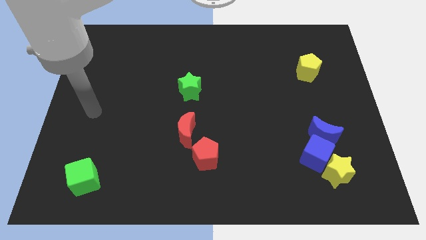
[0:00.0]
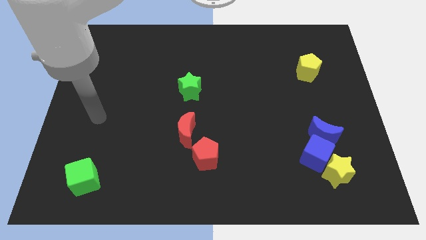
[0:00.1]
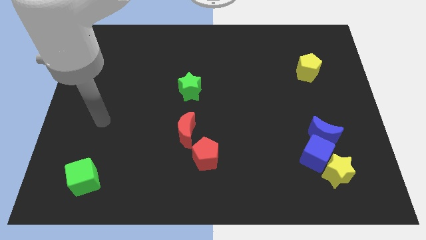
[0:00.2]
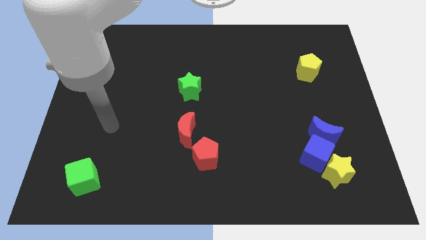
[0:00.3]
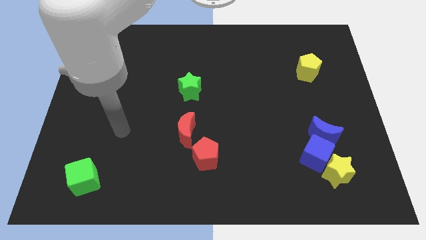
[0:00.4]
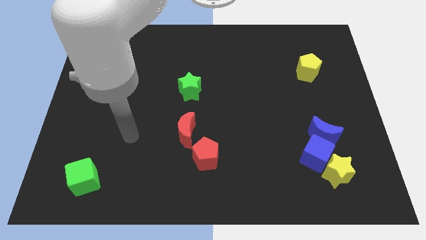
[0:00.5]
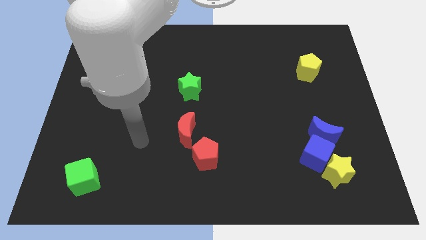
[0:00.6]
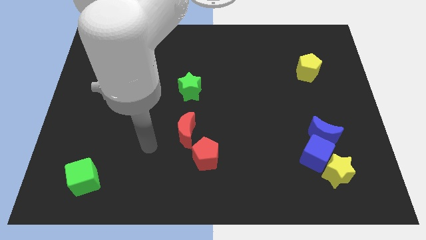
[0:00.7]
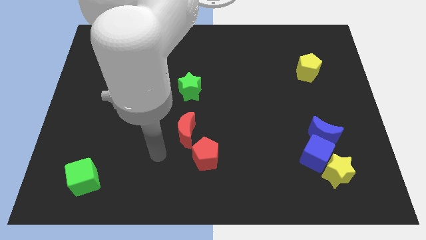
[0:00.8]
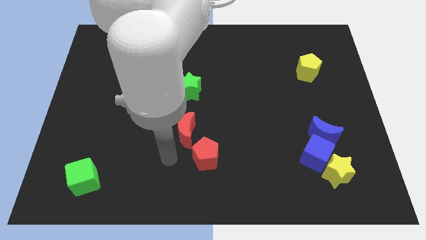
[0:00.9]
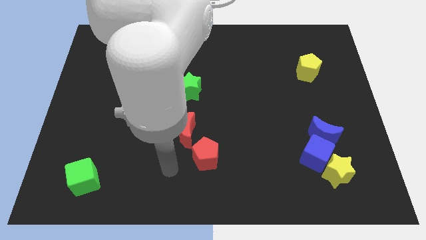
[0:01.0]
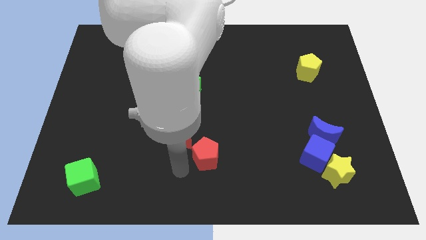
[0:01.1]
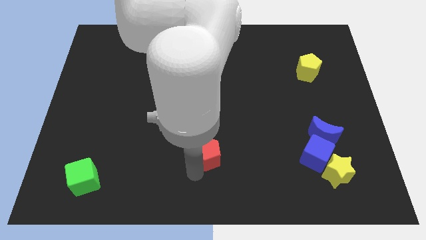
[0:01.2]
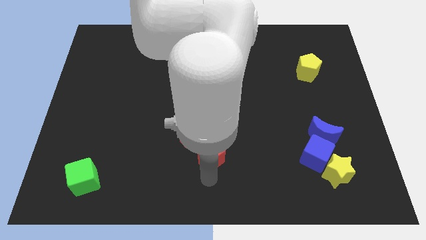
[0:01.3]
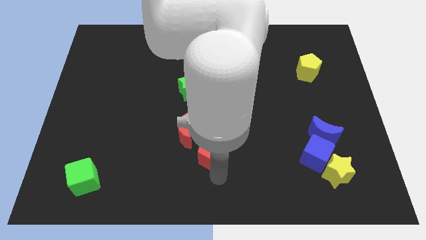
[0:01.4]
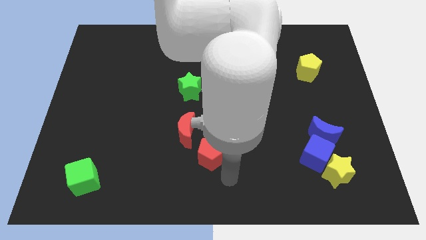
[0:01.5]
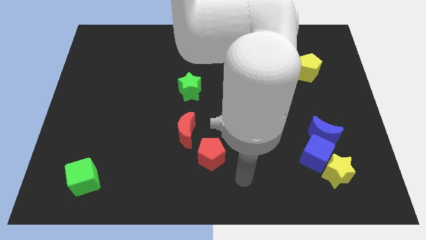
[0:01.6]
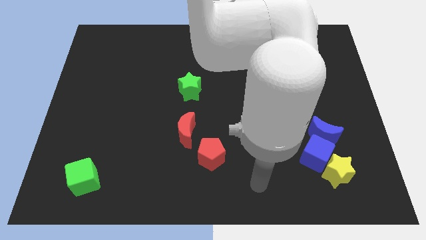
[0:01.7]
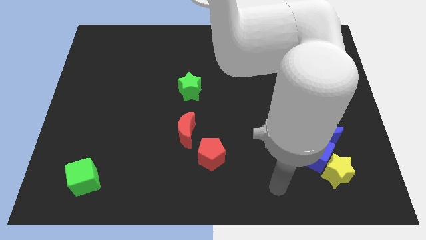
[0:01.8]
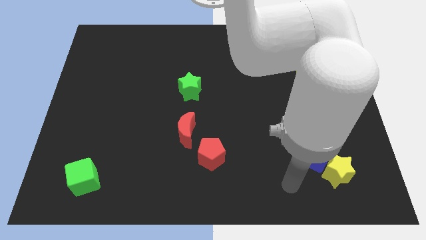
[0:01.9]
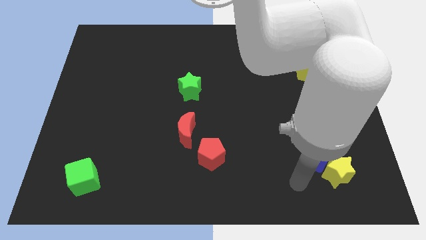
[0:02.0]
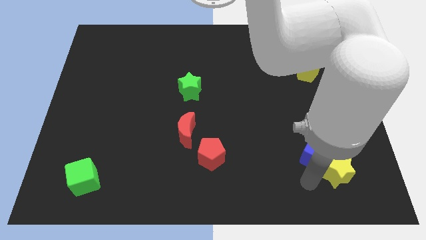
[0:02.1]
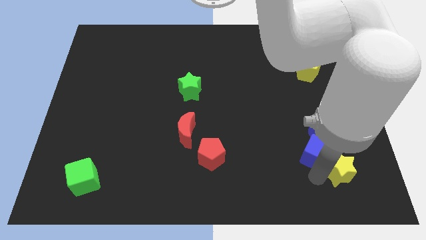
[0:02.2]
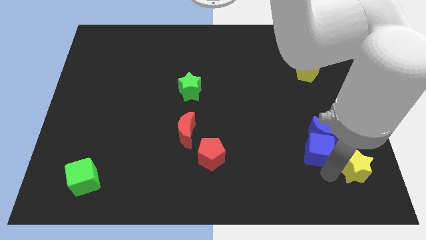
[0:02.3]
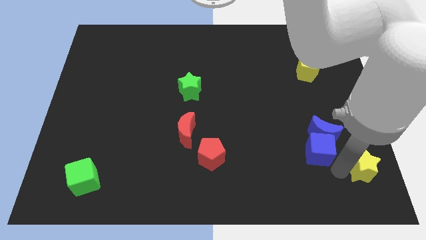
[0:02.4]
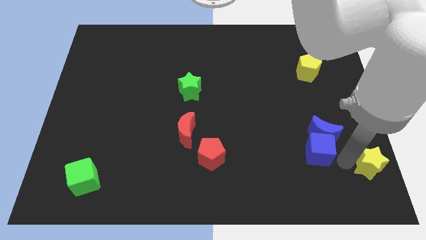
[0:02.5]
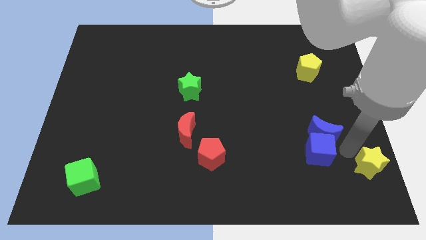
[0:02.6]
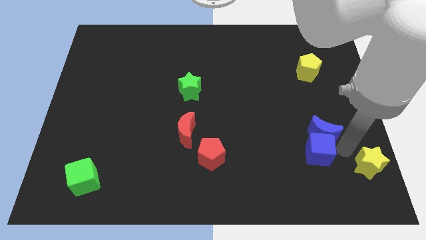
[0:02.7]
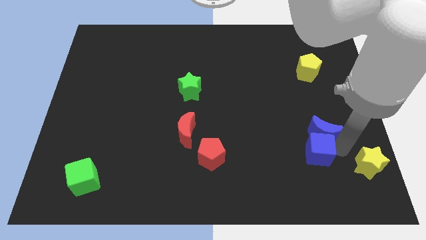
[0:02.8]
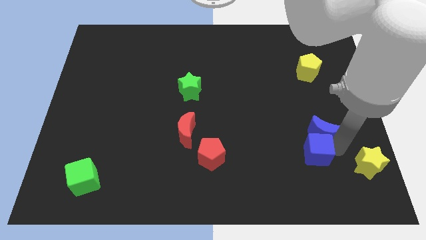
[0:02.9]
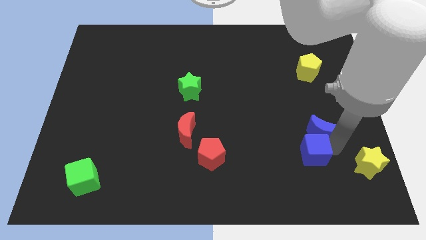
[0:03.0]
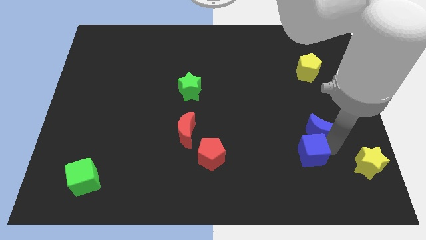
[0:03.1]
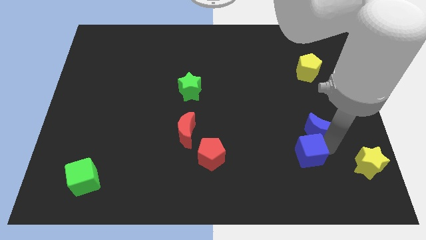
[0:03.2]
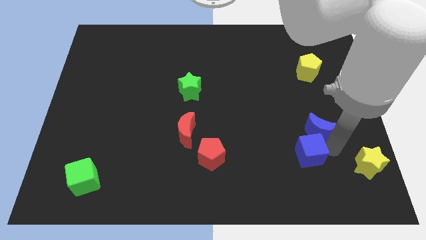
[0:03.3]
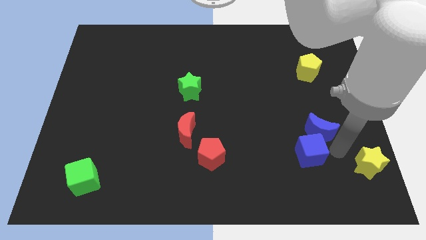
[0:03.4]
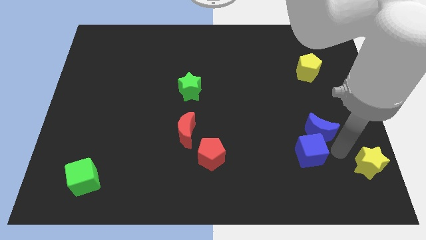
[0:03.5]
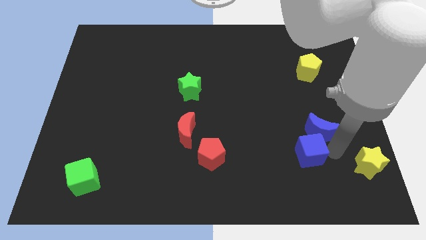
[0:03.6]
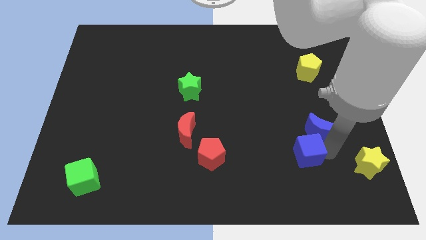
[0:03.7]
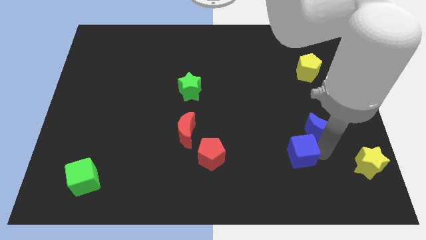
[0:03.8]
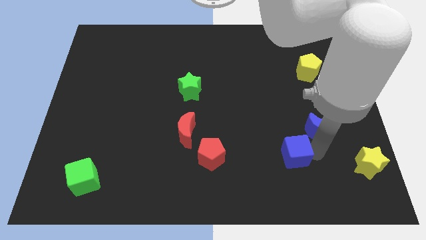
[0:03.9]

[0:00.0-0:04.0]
move the blue cube away from the yellow star and blue moon

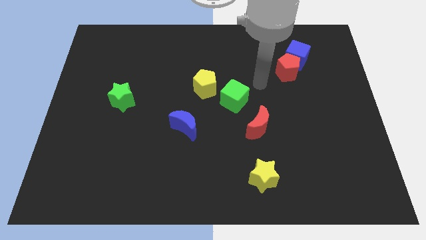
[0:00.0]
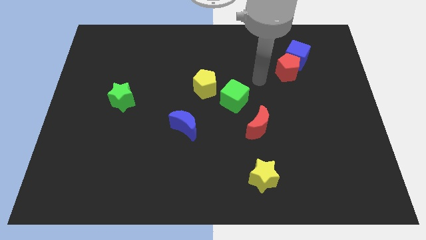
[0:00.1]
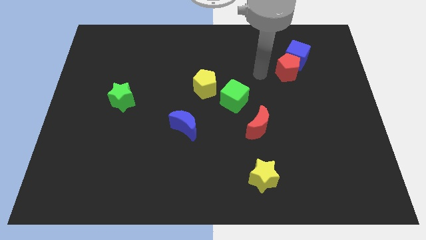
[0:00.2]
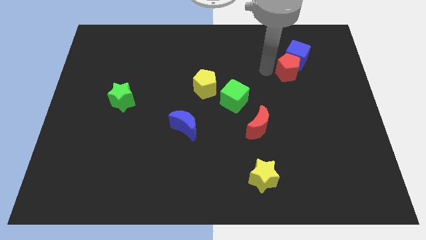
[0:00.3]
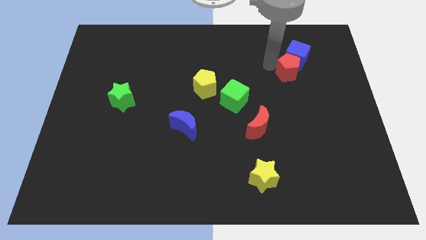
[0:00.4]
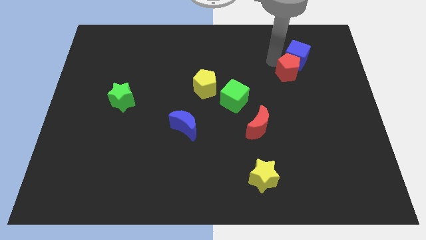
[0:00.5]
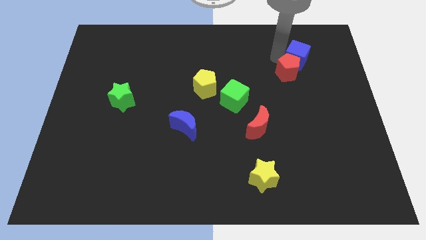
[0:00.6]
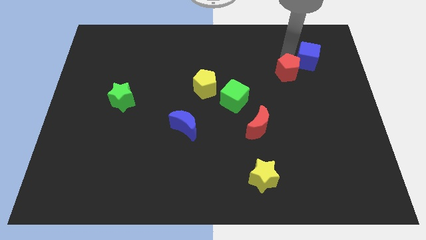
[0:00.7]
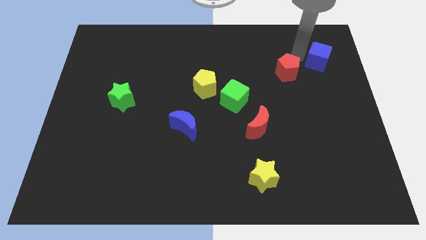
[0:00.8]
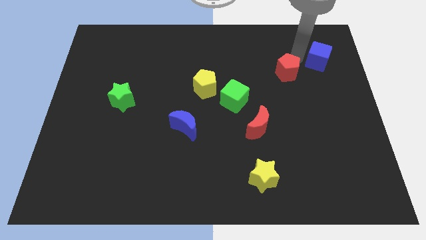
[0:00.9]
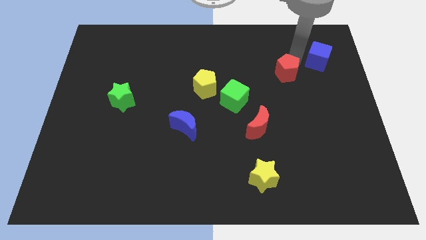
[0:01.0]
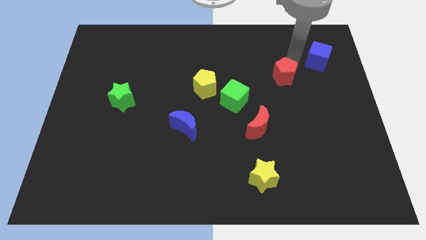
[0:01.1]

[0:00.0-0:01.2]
pull the red pentagon apart from the blue cube

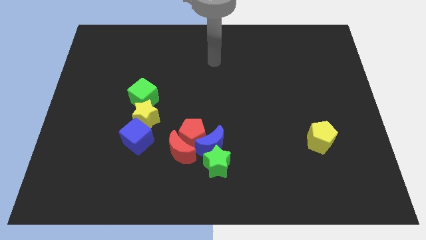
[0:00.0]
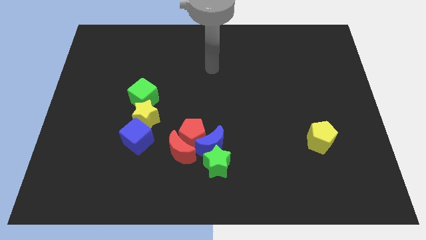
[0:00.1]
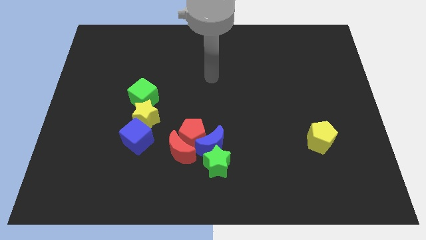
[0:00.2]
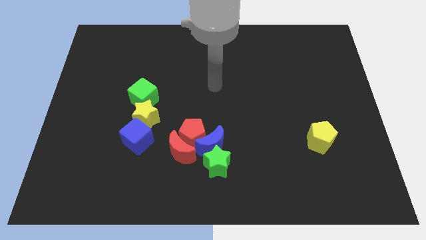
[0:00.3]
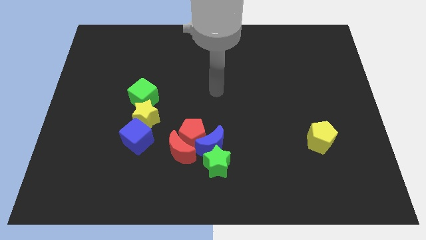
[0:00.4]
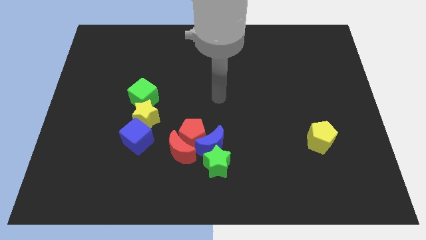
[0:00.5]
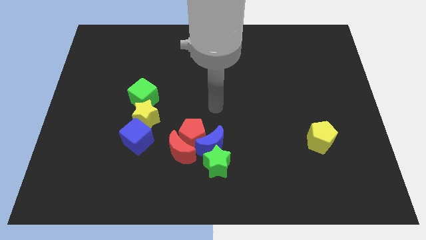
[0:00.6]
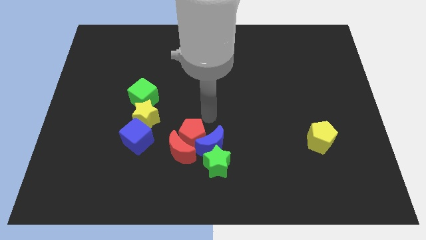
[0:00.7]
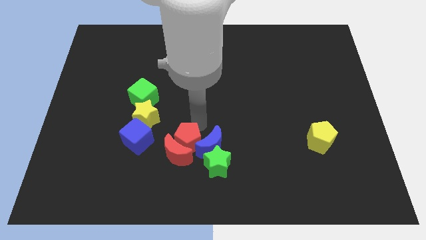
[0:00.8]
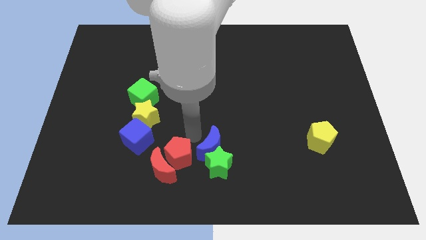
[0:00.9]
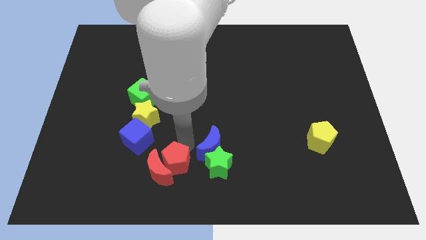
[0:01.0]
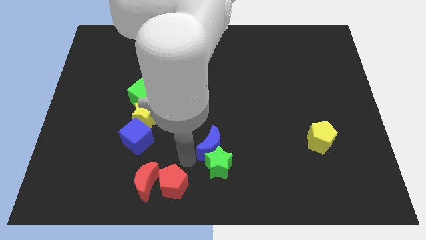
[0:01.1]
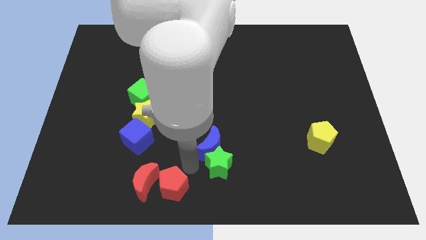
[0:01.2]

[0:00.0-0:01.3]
move the blue moon away from the red pentagon, green star, and red moon

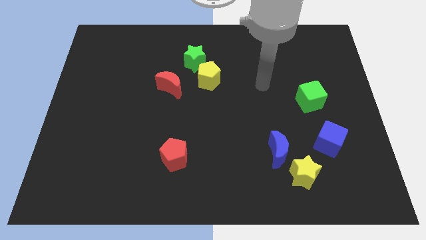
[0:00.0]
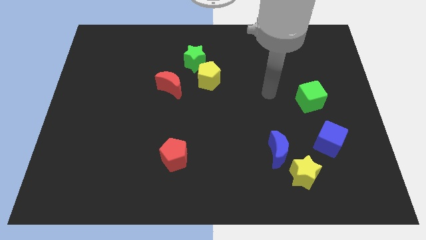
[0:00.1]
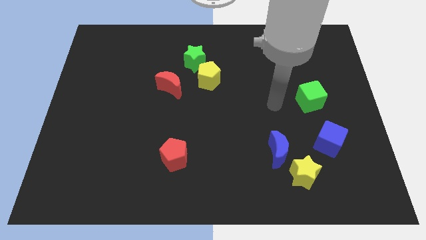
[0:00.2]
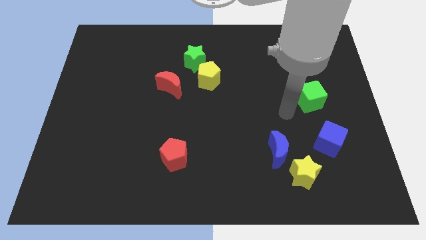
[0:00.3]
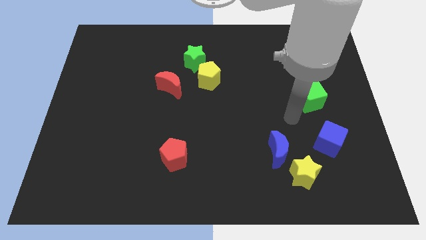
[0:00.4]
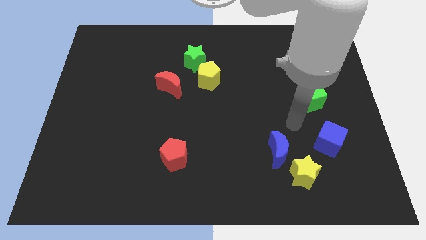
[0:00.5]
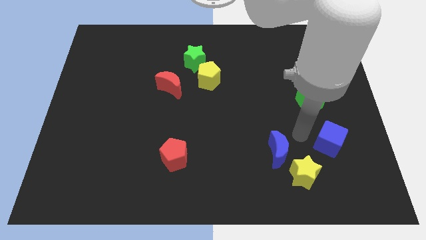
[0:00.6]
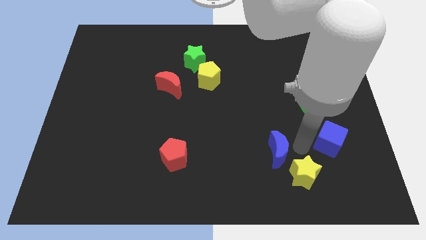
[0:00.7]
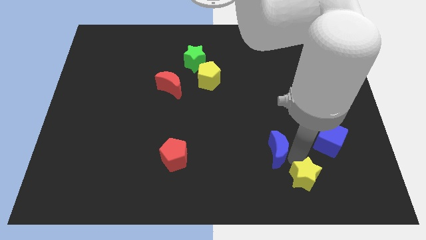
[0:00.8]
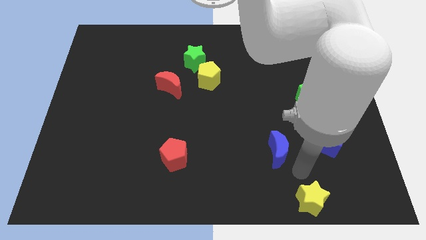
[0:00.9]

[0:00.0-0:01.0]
pull the blue moon apart from the yellow star

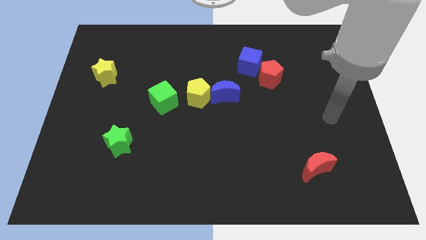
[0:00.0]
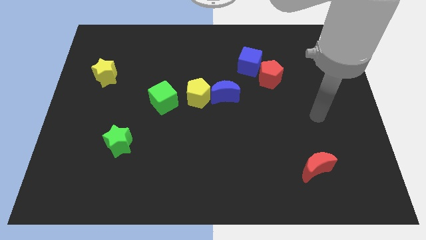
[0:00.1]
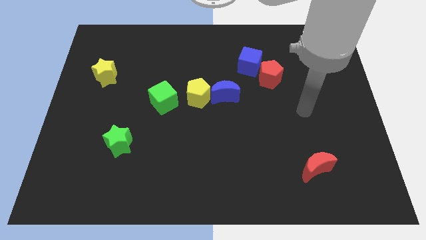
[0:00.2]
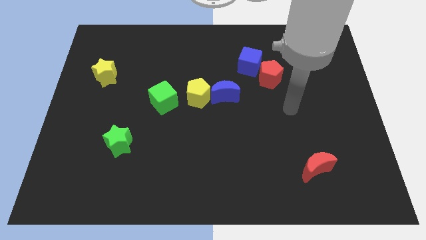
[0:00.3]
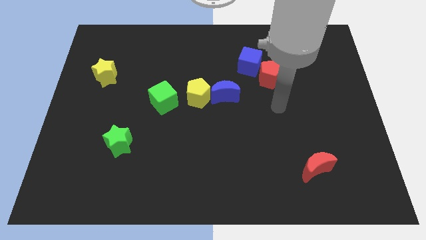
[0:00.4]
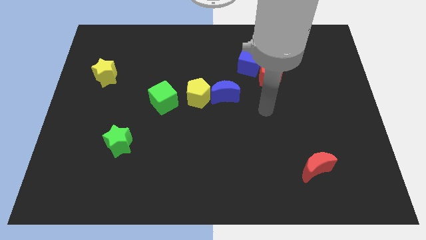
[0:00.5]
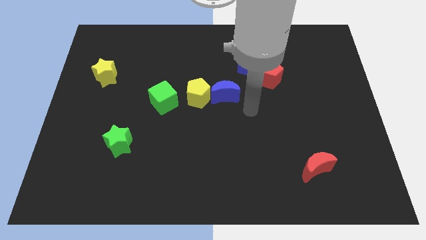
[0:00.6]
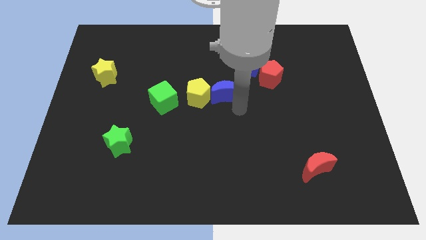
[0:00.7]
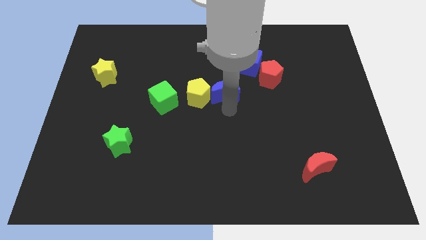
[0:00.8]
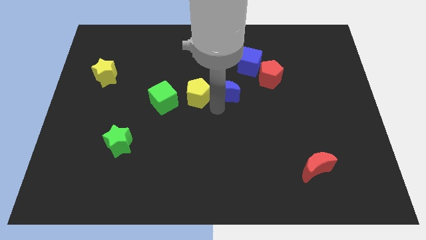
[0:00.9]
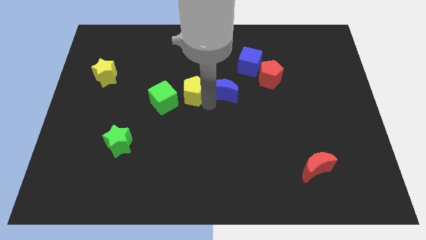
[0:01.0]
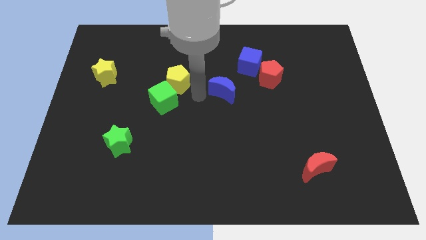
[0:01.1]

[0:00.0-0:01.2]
separate the blue moon from the yellow pentagon

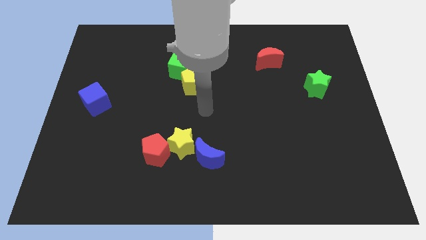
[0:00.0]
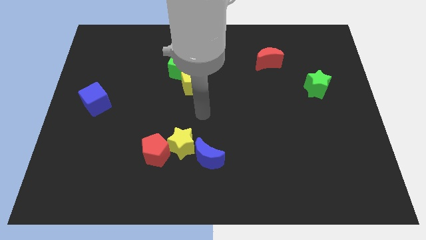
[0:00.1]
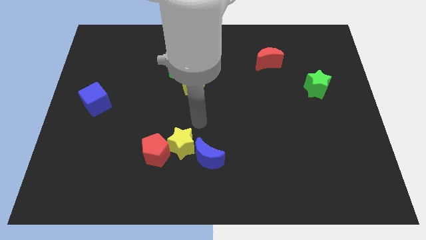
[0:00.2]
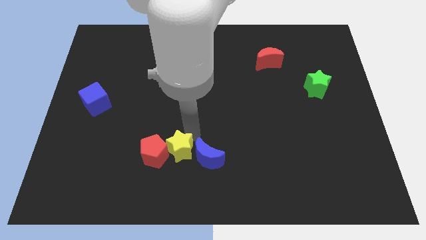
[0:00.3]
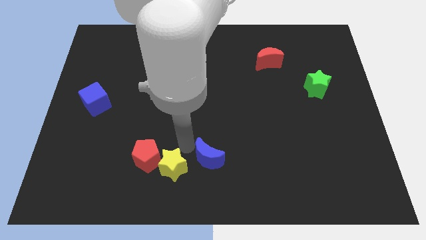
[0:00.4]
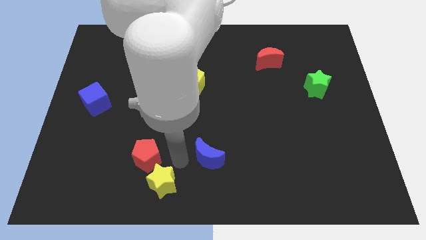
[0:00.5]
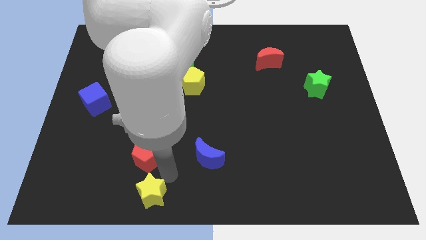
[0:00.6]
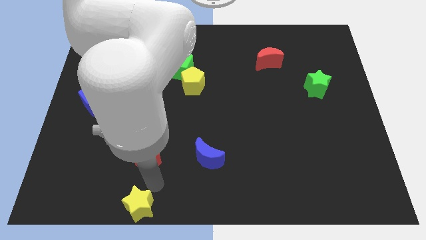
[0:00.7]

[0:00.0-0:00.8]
pull the red pentagon apart from the yellow star
